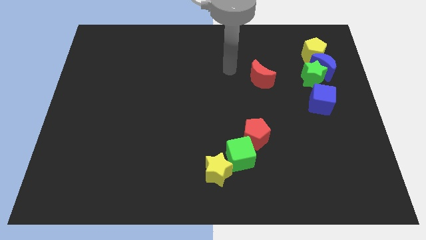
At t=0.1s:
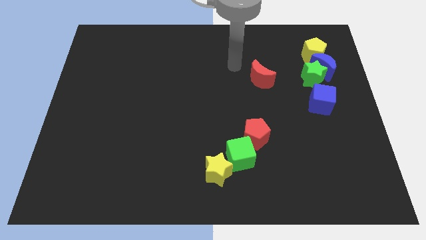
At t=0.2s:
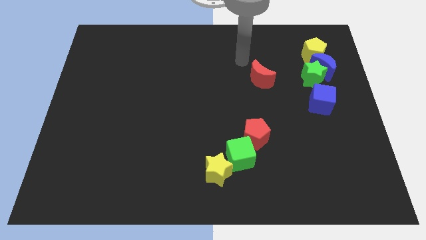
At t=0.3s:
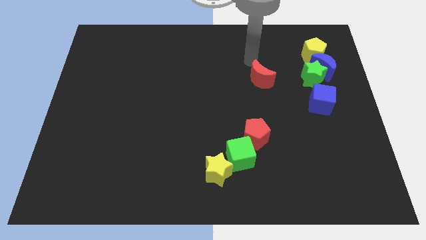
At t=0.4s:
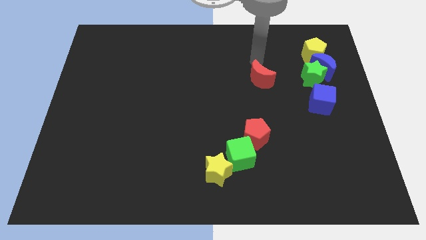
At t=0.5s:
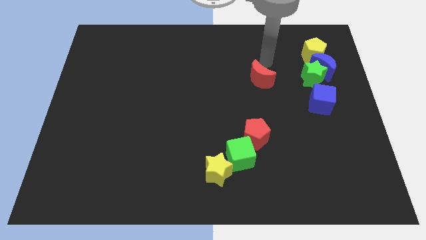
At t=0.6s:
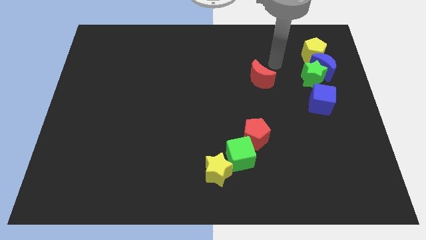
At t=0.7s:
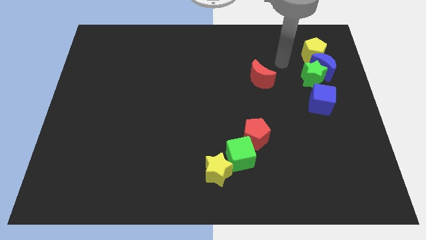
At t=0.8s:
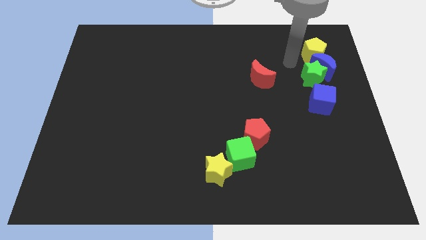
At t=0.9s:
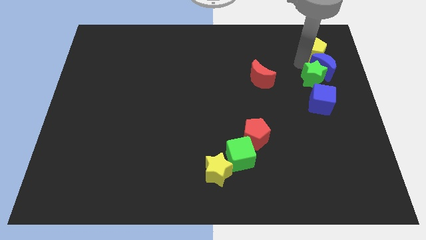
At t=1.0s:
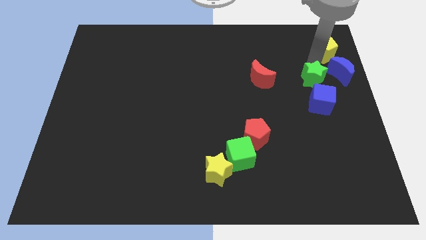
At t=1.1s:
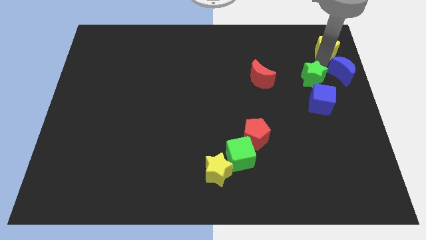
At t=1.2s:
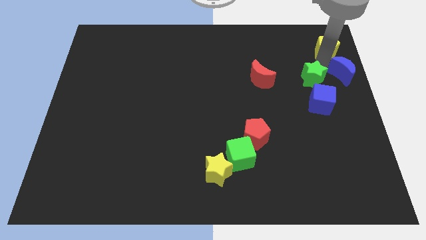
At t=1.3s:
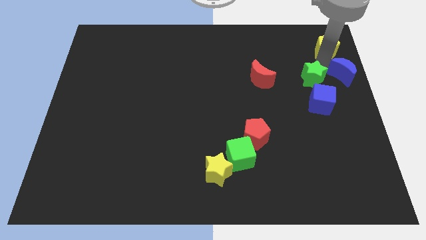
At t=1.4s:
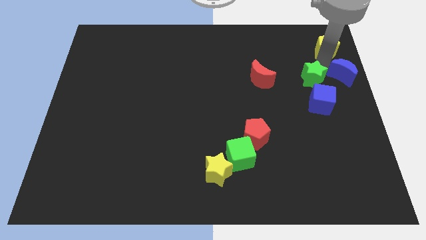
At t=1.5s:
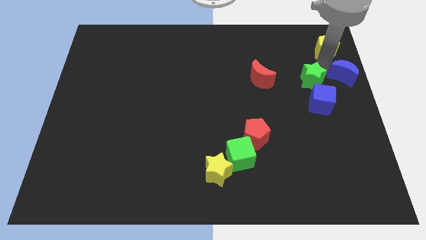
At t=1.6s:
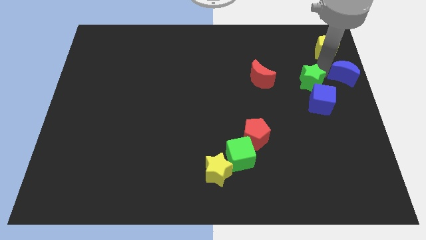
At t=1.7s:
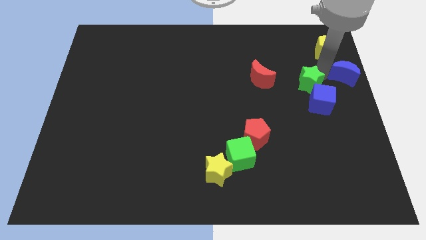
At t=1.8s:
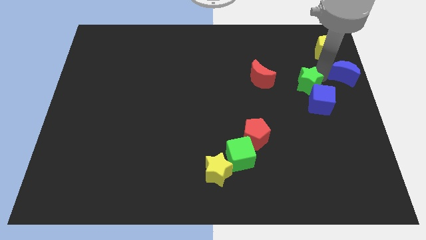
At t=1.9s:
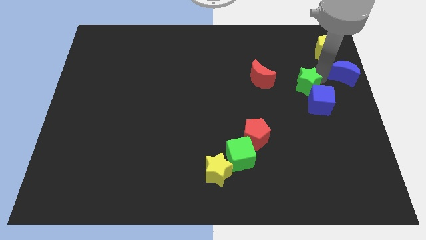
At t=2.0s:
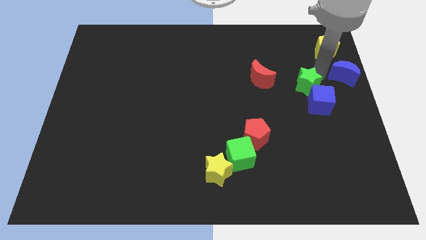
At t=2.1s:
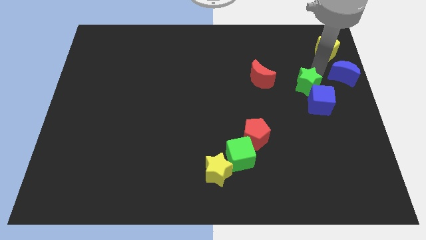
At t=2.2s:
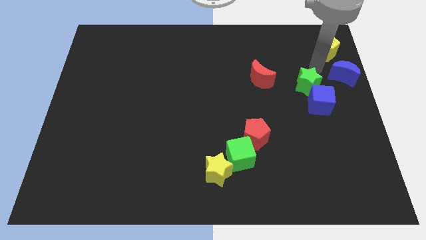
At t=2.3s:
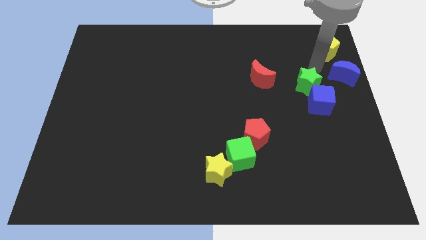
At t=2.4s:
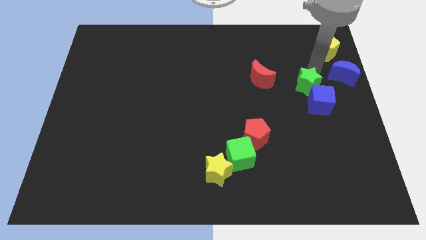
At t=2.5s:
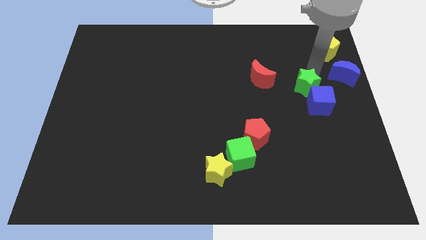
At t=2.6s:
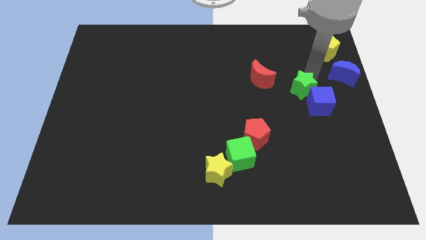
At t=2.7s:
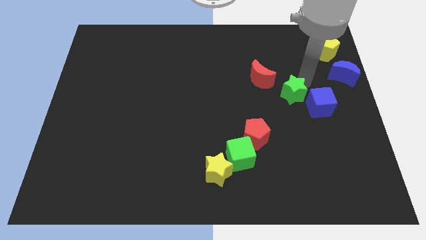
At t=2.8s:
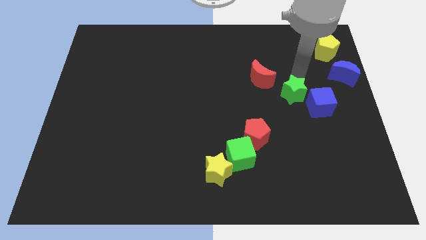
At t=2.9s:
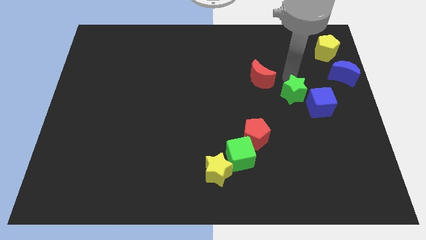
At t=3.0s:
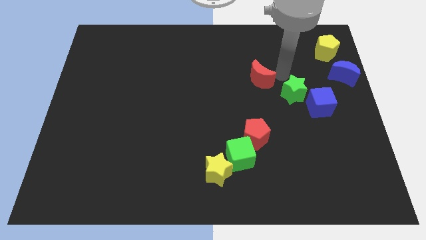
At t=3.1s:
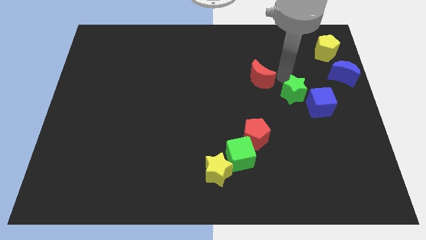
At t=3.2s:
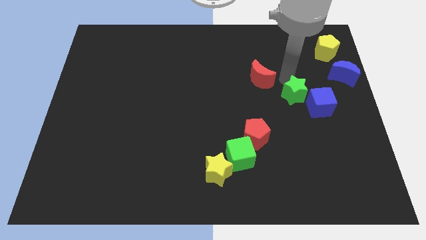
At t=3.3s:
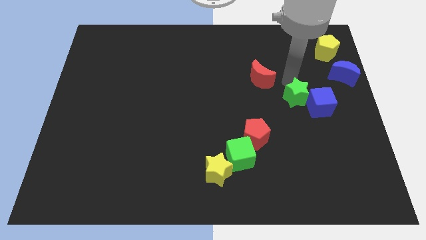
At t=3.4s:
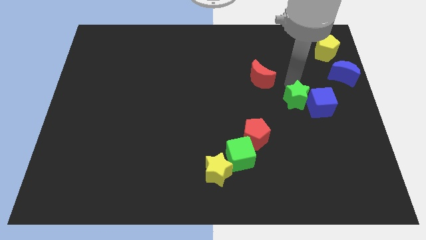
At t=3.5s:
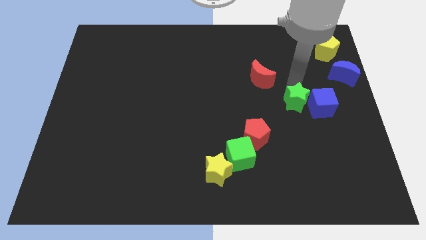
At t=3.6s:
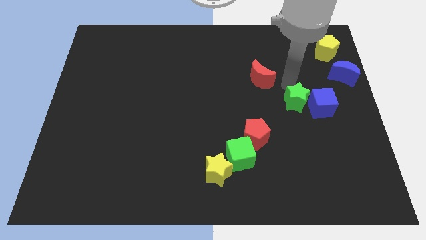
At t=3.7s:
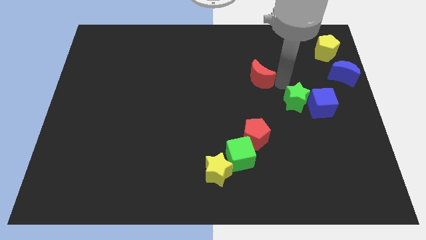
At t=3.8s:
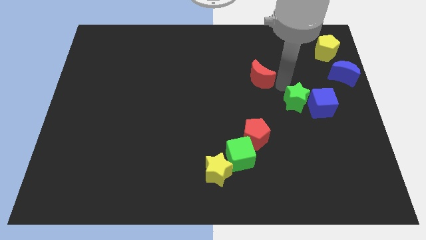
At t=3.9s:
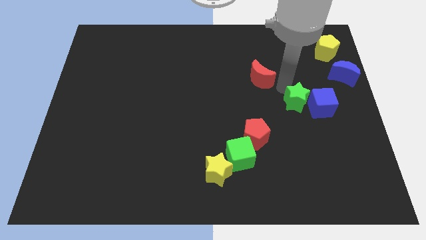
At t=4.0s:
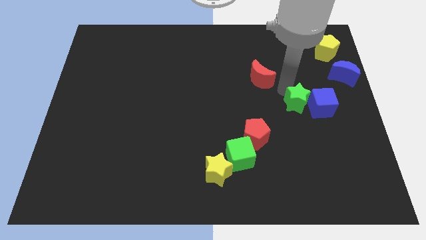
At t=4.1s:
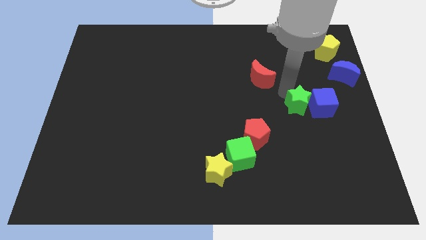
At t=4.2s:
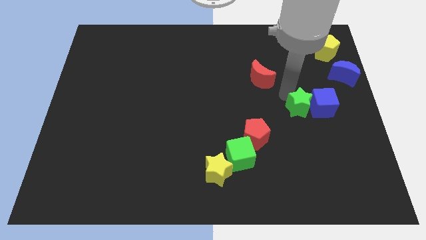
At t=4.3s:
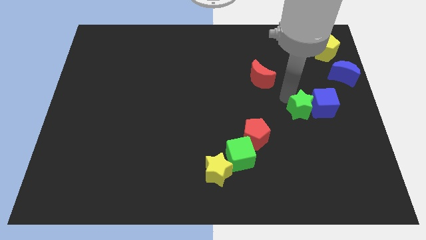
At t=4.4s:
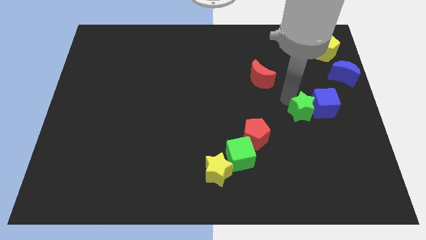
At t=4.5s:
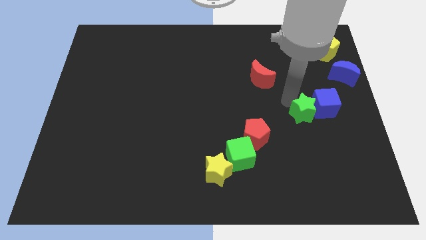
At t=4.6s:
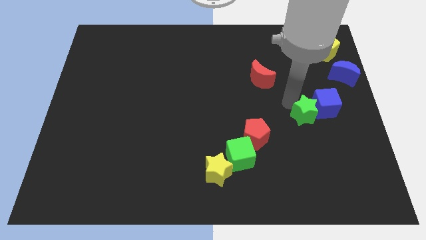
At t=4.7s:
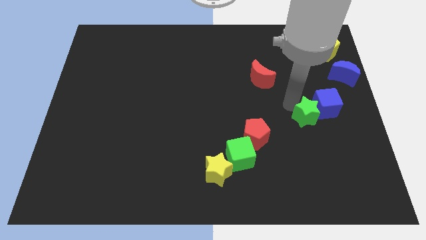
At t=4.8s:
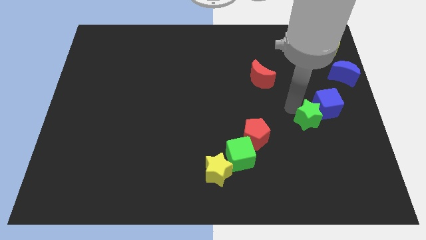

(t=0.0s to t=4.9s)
put the green star below the blue cube

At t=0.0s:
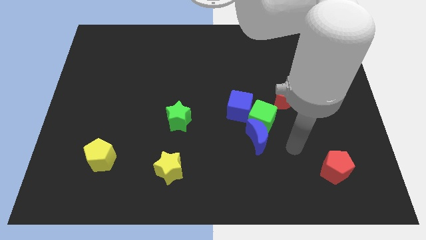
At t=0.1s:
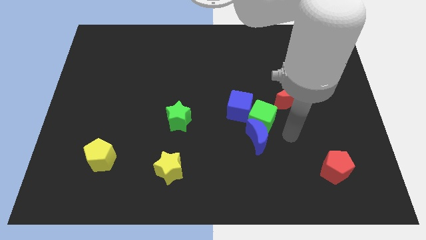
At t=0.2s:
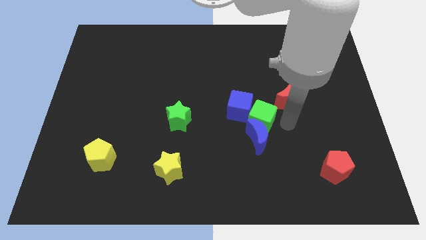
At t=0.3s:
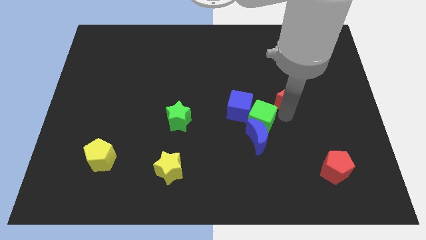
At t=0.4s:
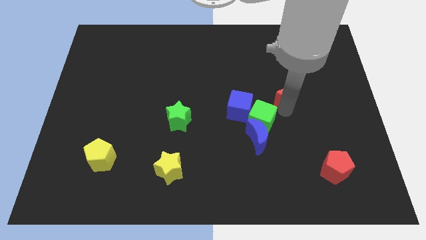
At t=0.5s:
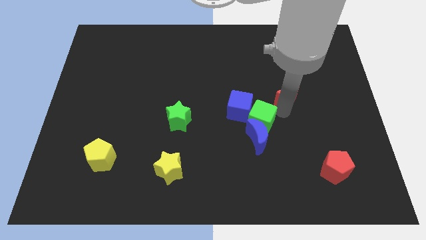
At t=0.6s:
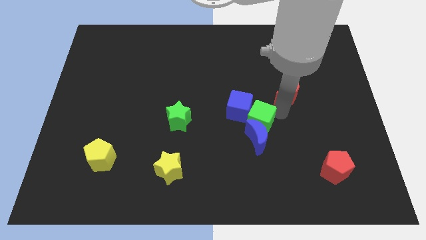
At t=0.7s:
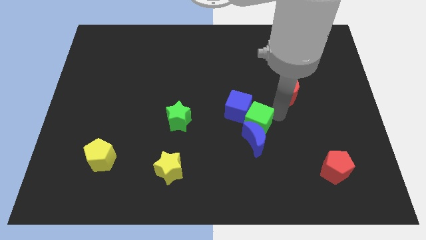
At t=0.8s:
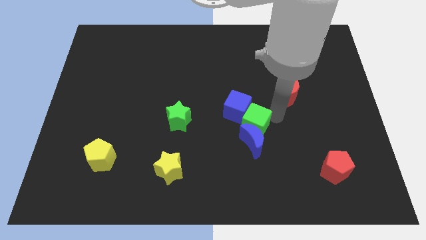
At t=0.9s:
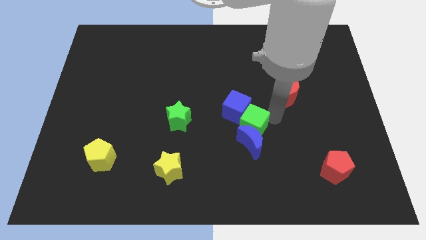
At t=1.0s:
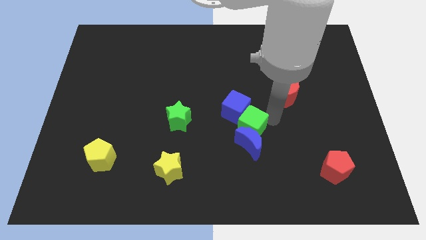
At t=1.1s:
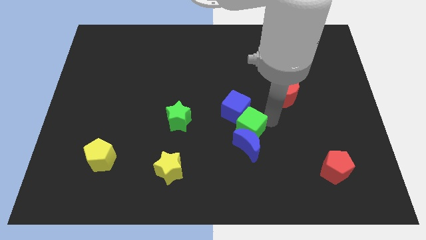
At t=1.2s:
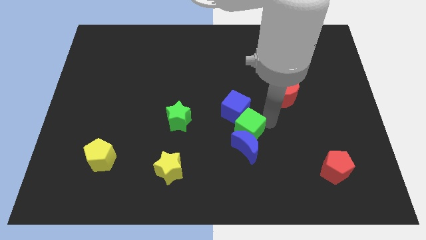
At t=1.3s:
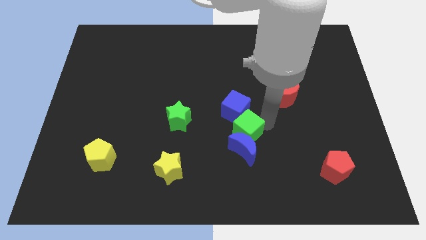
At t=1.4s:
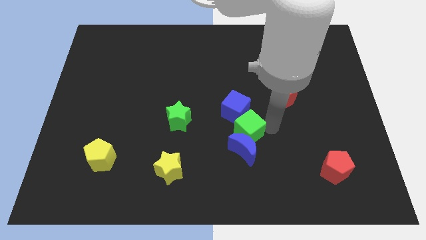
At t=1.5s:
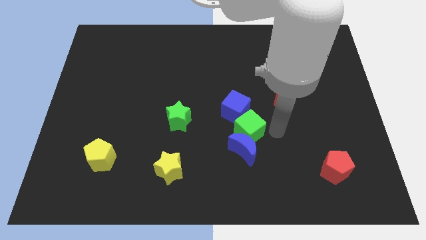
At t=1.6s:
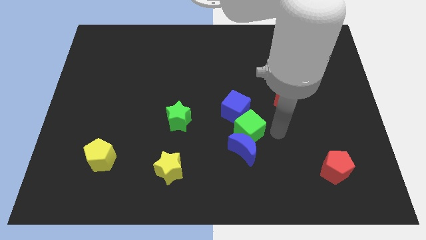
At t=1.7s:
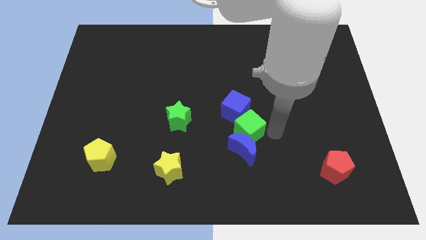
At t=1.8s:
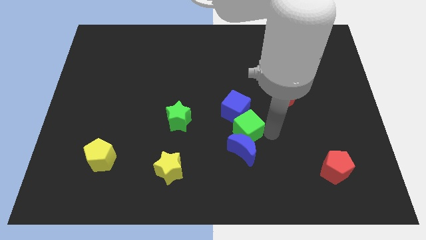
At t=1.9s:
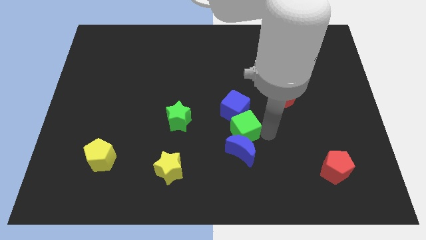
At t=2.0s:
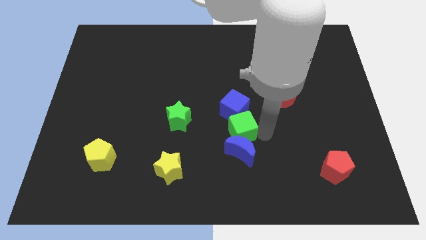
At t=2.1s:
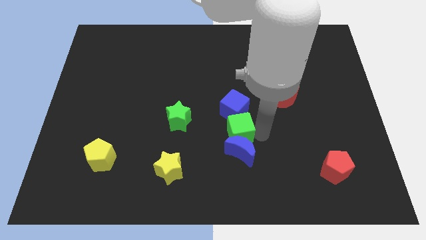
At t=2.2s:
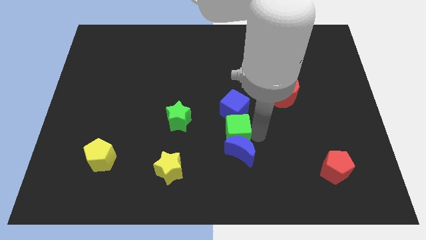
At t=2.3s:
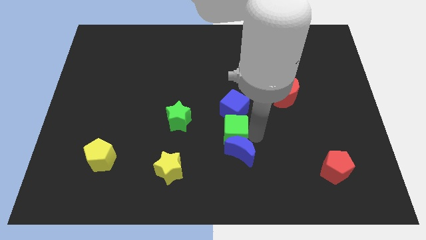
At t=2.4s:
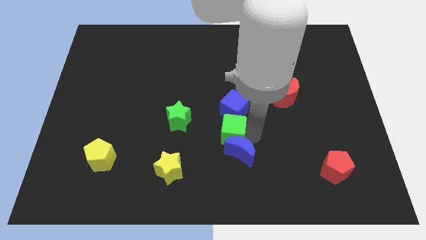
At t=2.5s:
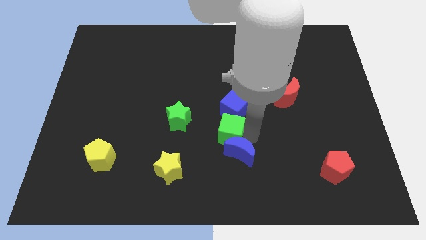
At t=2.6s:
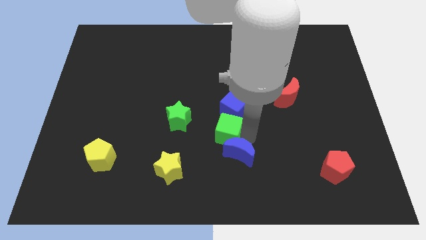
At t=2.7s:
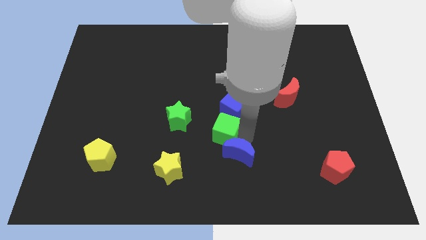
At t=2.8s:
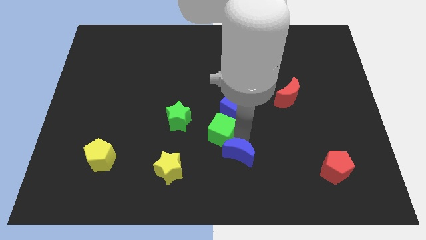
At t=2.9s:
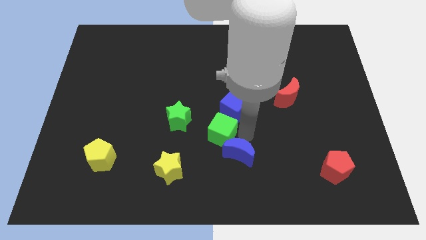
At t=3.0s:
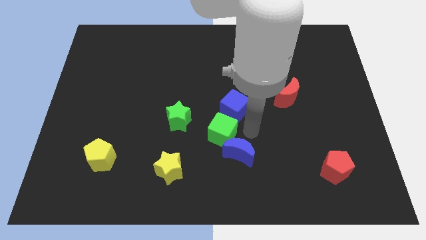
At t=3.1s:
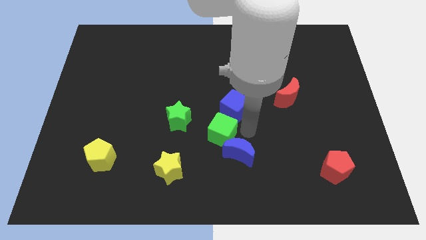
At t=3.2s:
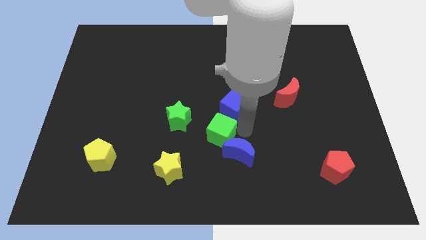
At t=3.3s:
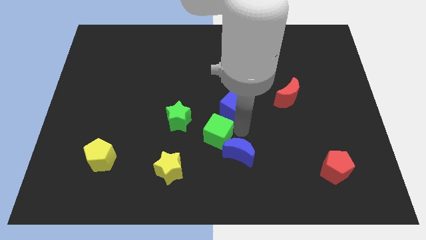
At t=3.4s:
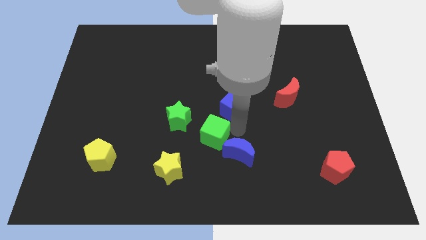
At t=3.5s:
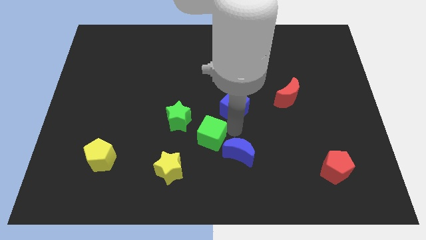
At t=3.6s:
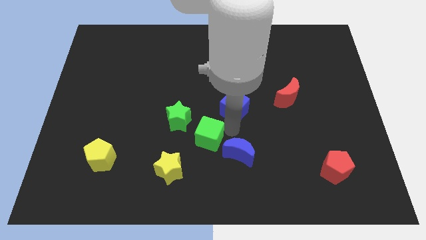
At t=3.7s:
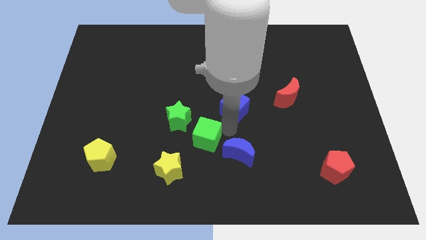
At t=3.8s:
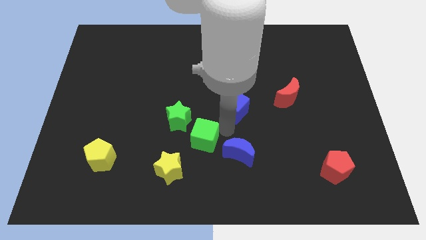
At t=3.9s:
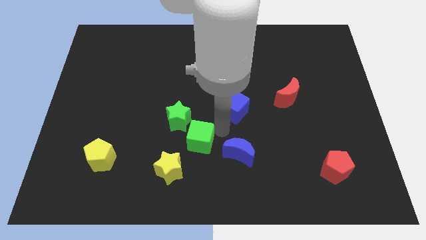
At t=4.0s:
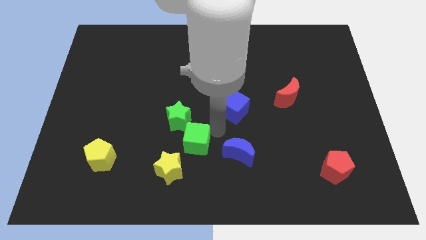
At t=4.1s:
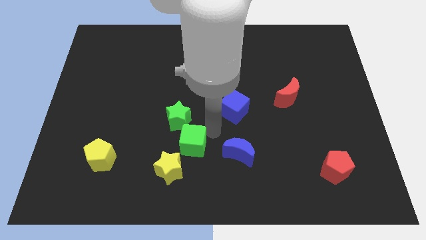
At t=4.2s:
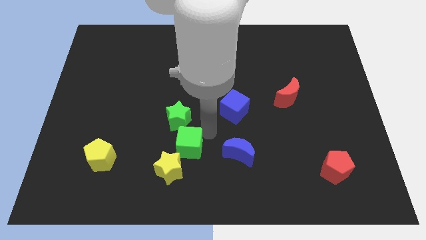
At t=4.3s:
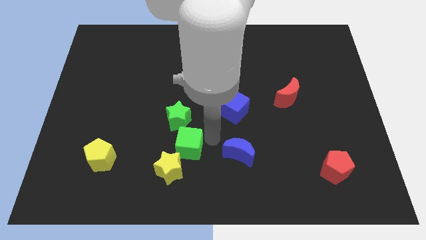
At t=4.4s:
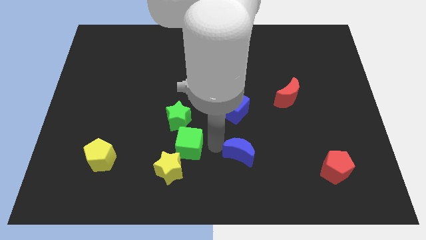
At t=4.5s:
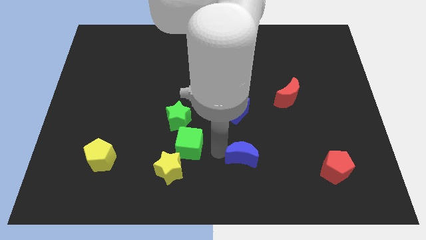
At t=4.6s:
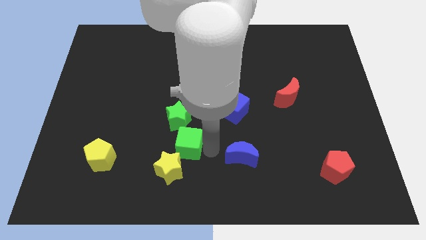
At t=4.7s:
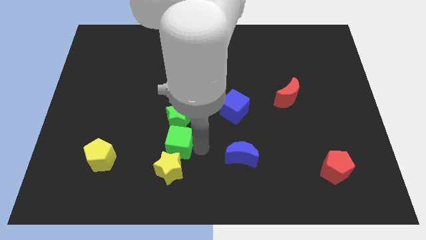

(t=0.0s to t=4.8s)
move the green cube to the bottom left side of the green star
